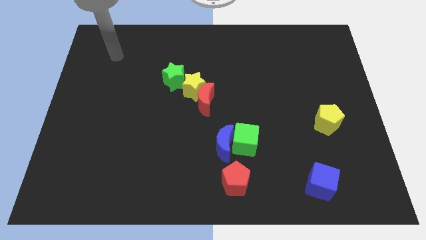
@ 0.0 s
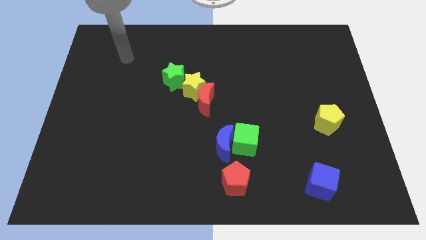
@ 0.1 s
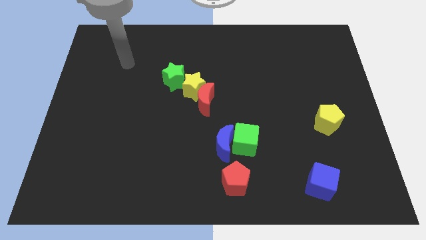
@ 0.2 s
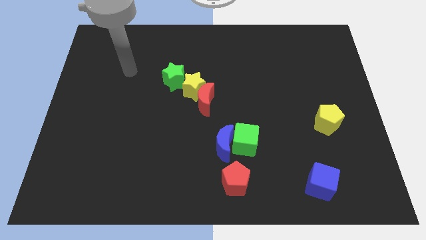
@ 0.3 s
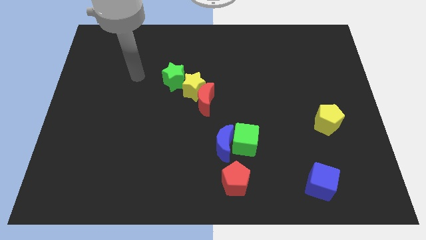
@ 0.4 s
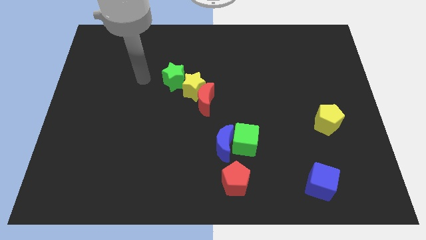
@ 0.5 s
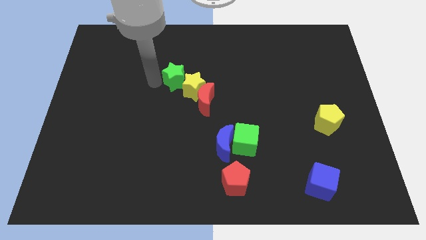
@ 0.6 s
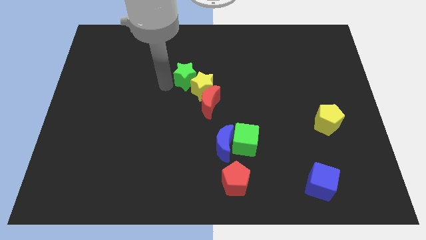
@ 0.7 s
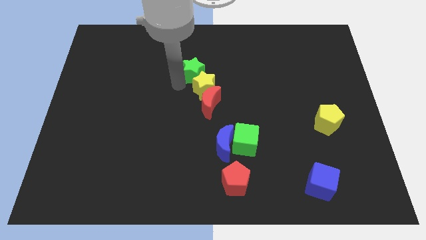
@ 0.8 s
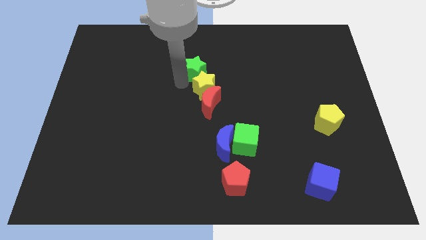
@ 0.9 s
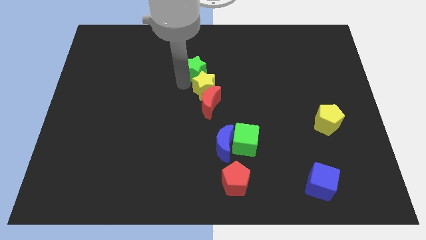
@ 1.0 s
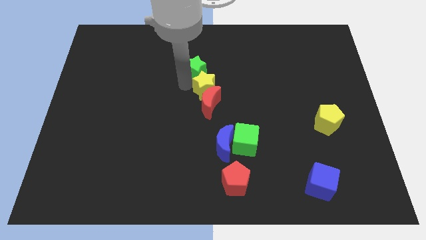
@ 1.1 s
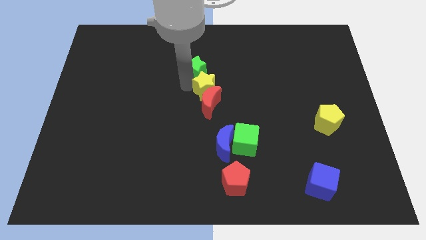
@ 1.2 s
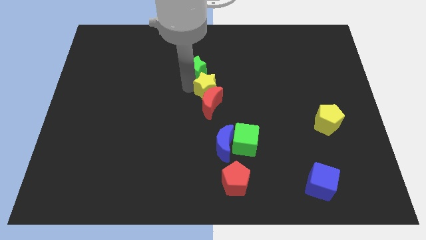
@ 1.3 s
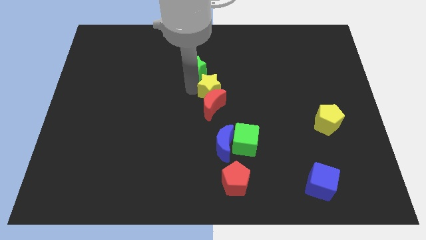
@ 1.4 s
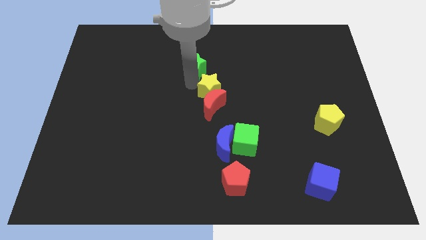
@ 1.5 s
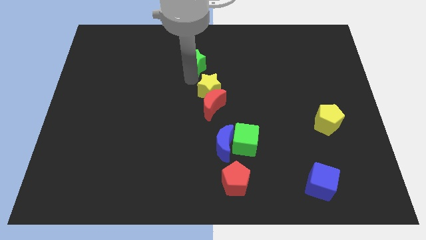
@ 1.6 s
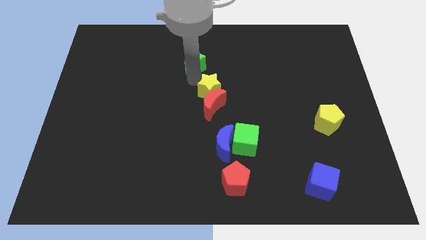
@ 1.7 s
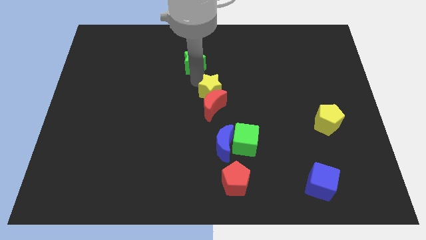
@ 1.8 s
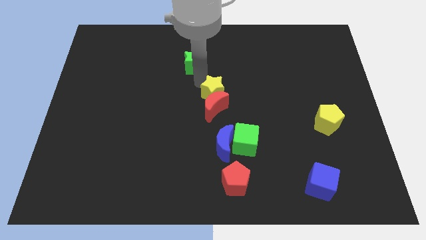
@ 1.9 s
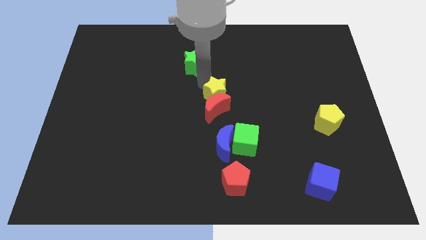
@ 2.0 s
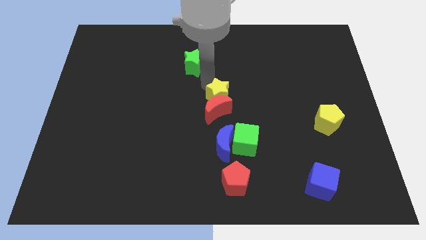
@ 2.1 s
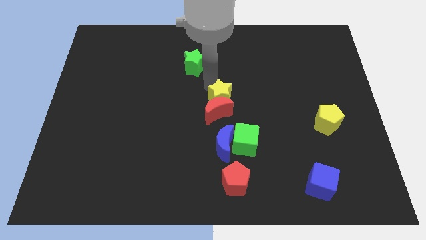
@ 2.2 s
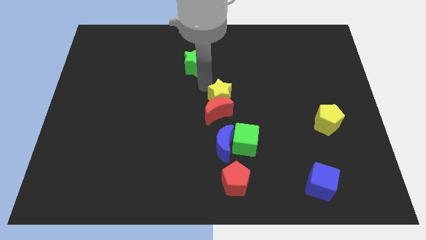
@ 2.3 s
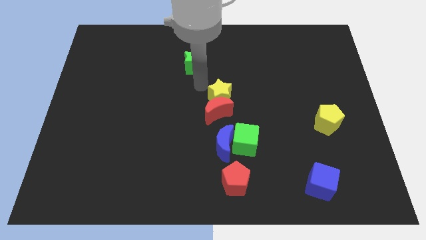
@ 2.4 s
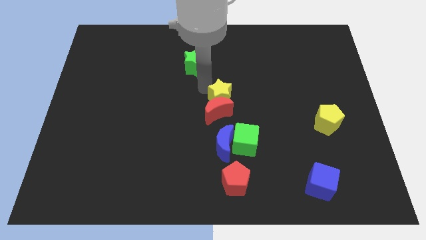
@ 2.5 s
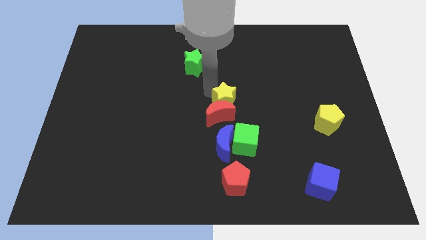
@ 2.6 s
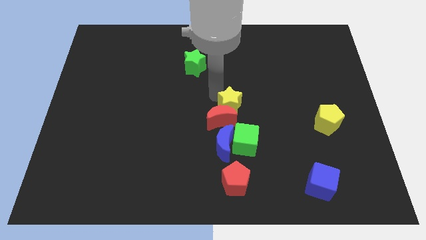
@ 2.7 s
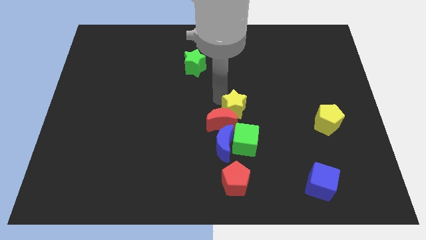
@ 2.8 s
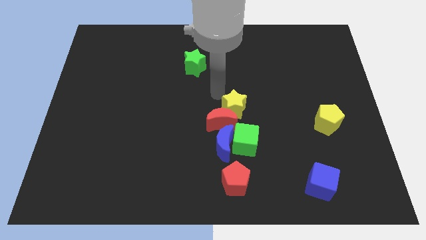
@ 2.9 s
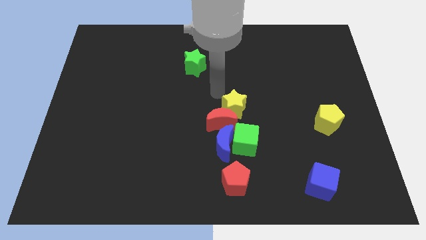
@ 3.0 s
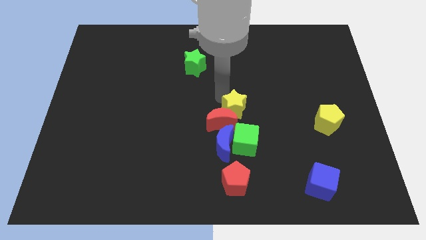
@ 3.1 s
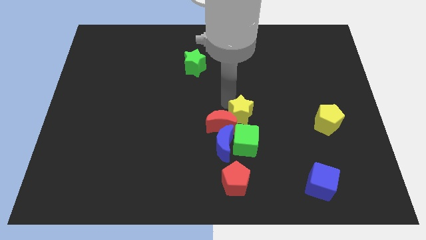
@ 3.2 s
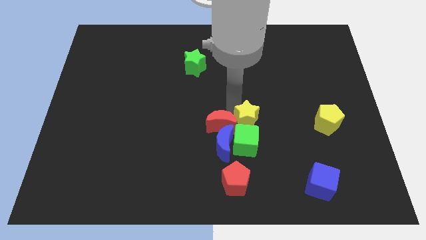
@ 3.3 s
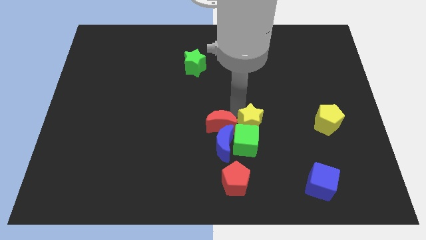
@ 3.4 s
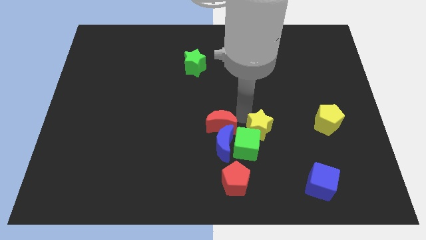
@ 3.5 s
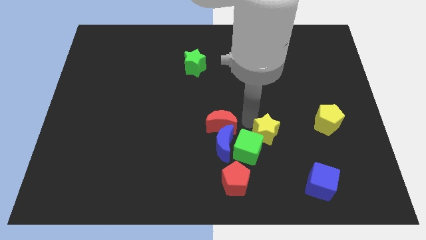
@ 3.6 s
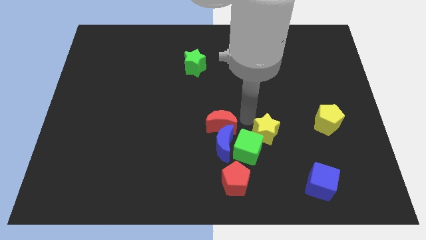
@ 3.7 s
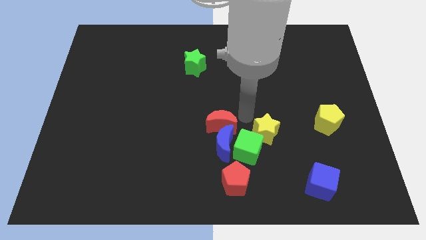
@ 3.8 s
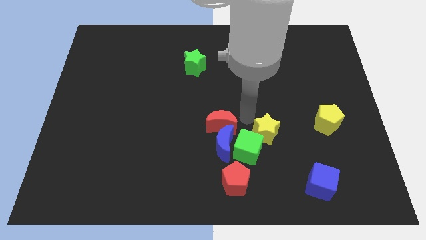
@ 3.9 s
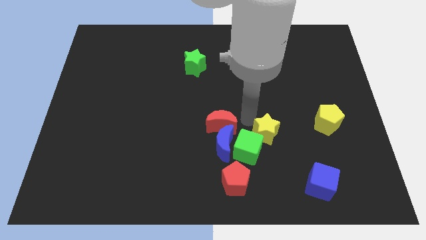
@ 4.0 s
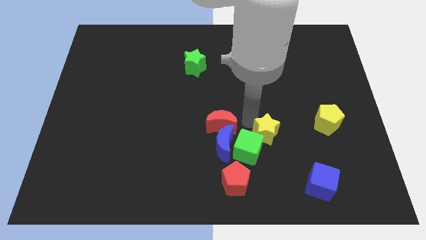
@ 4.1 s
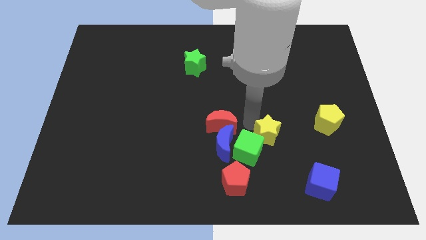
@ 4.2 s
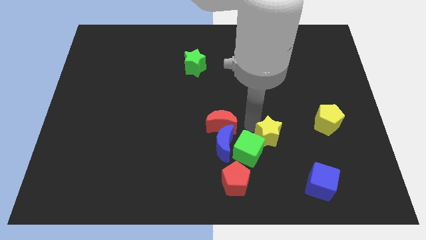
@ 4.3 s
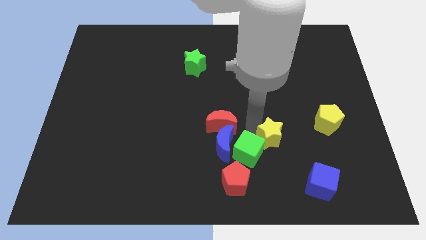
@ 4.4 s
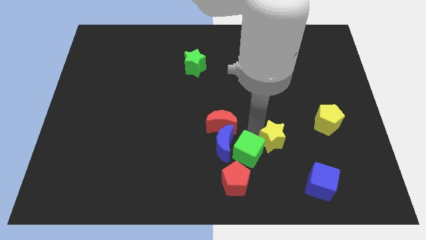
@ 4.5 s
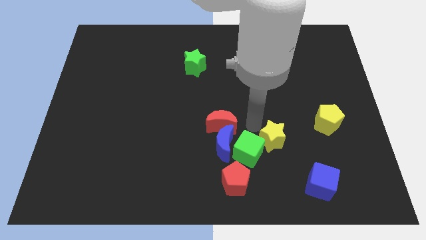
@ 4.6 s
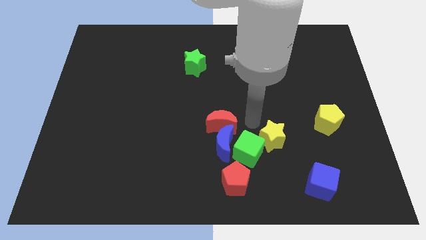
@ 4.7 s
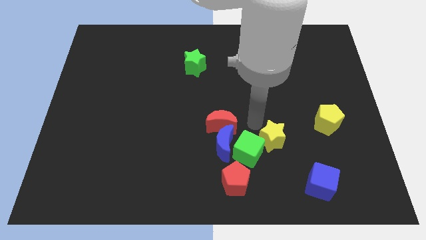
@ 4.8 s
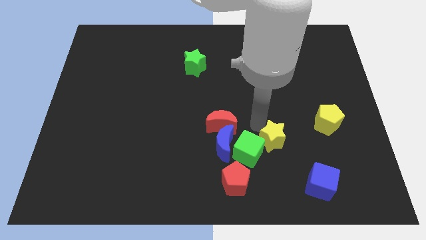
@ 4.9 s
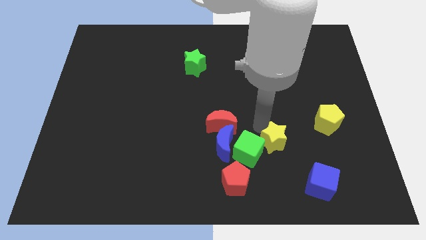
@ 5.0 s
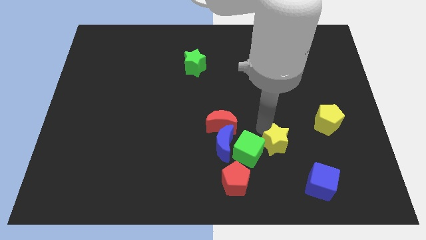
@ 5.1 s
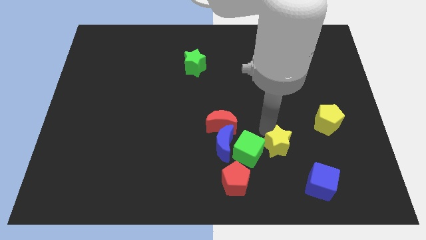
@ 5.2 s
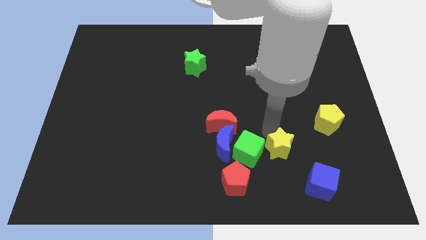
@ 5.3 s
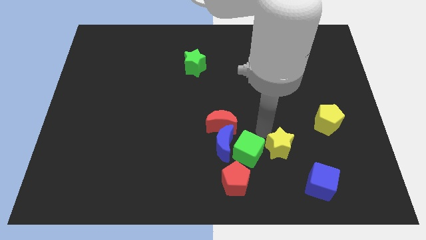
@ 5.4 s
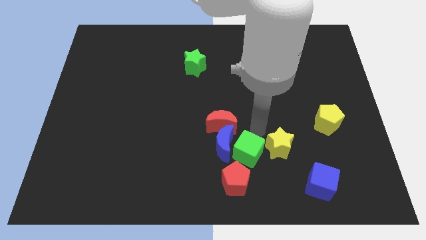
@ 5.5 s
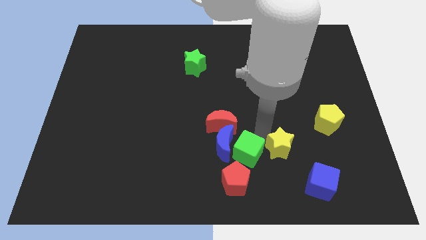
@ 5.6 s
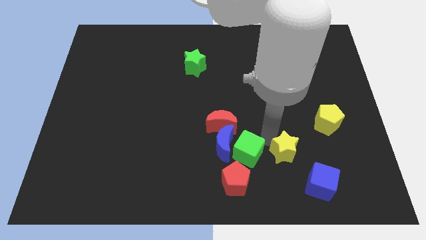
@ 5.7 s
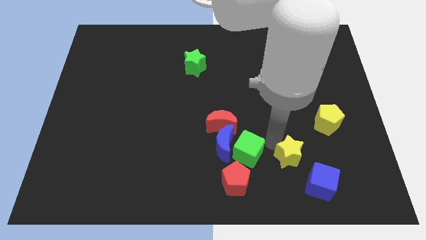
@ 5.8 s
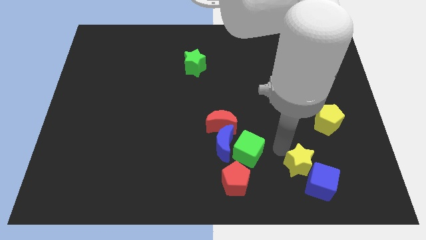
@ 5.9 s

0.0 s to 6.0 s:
move the yellow star next to the blue cube

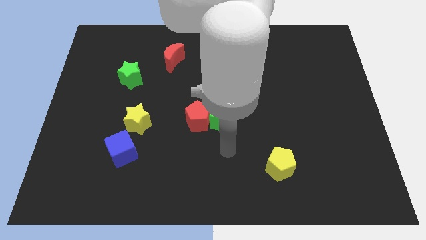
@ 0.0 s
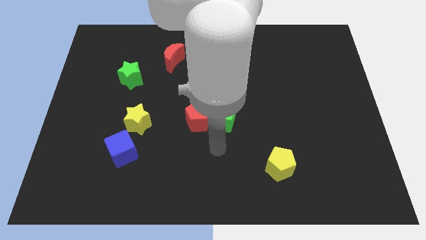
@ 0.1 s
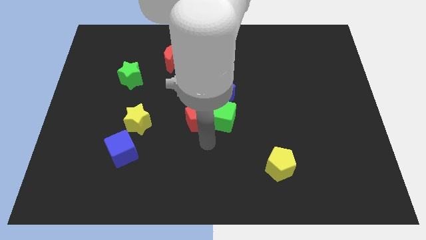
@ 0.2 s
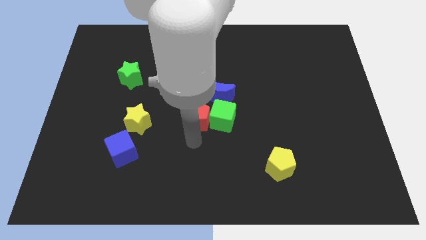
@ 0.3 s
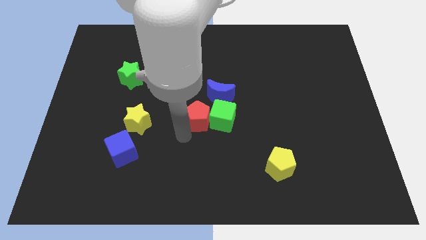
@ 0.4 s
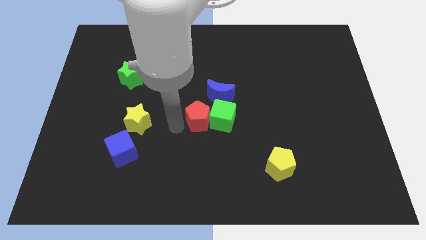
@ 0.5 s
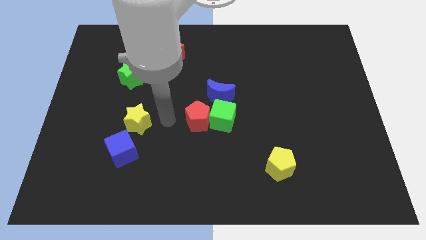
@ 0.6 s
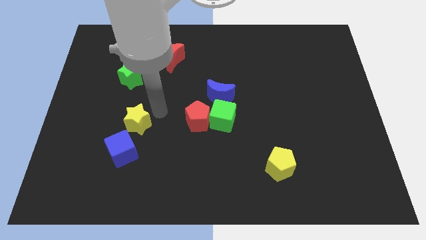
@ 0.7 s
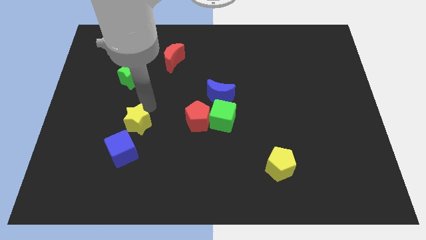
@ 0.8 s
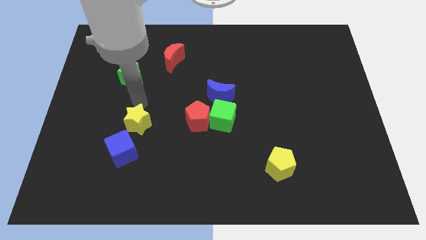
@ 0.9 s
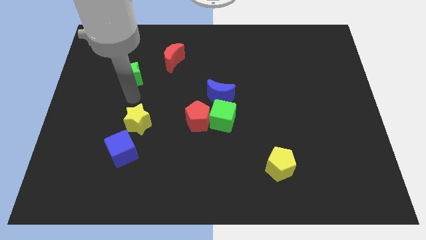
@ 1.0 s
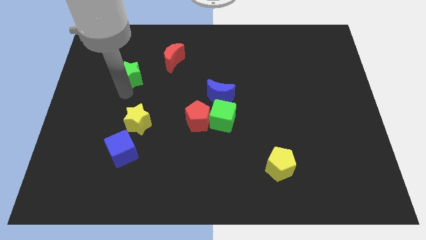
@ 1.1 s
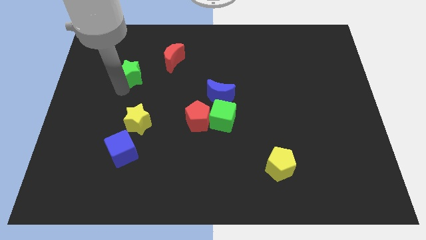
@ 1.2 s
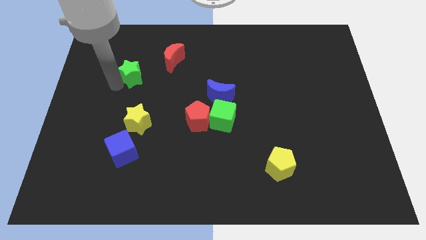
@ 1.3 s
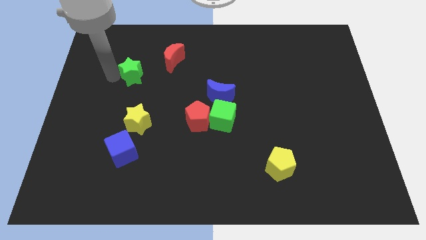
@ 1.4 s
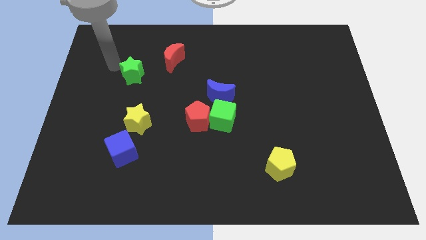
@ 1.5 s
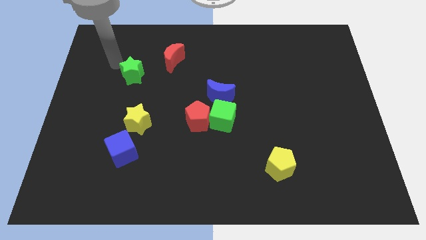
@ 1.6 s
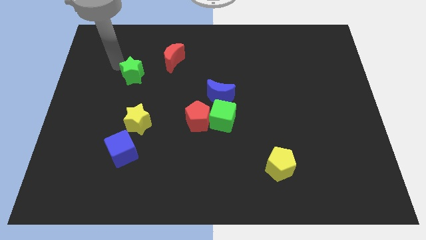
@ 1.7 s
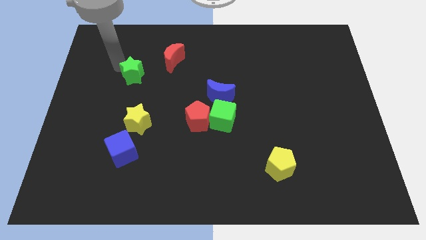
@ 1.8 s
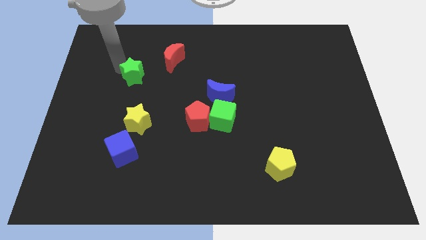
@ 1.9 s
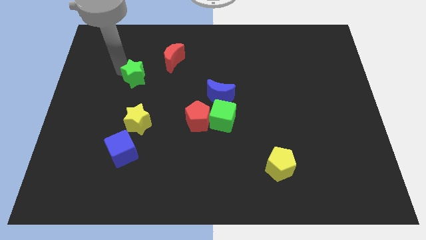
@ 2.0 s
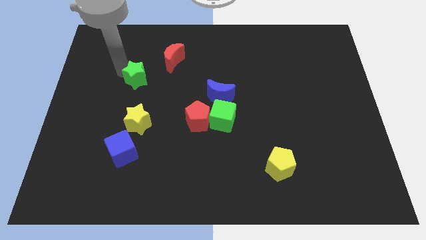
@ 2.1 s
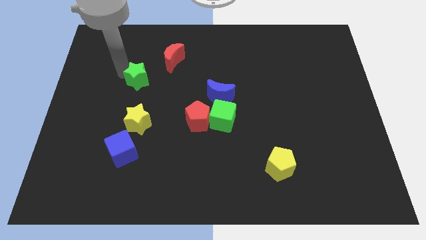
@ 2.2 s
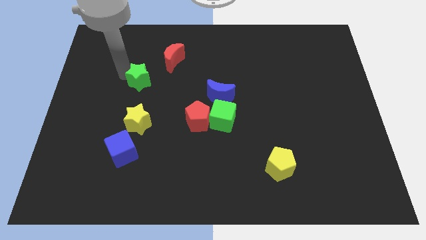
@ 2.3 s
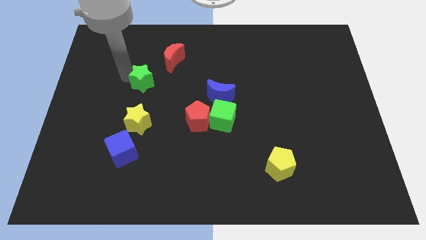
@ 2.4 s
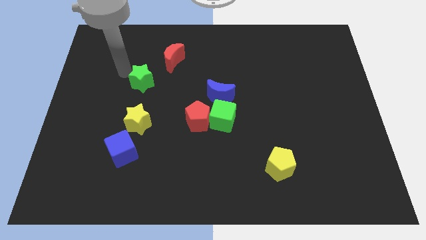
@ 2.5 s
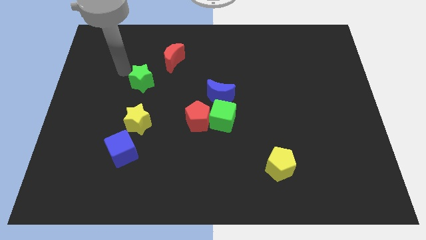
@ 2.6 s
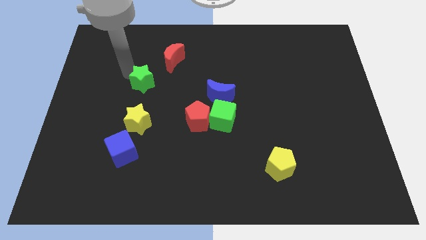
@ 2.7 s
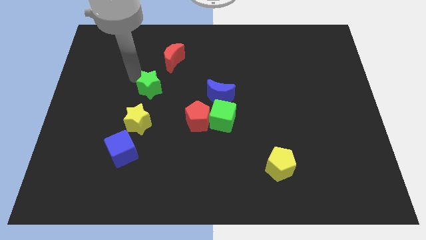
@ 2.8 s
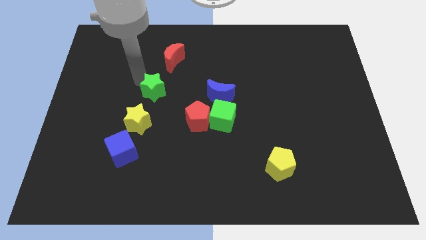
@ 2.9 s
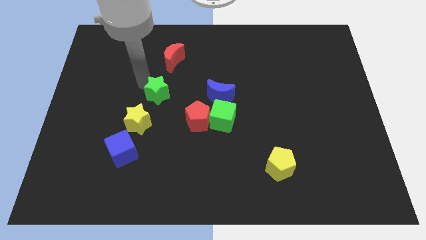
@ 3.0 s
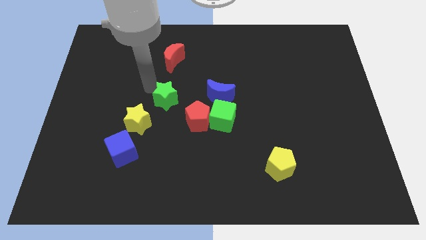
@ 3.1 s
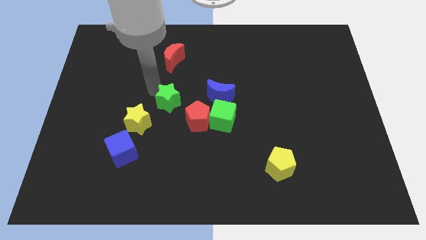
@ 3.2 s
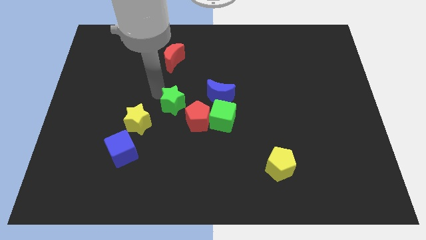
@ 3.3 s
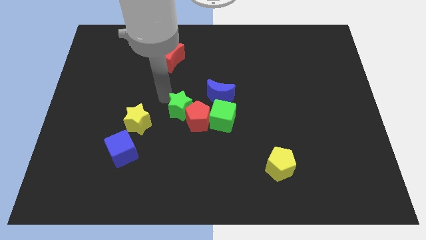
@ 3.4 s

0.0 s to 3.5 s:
put the green star towards the red pentagon
